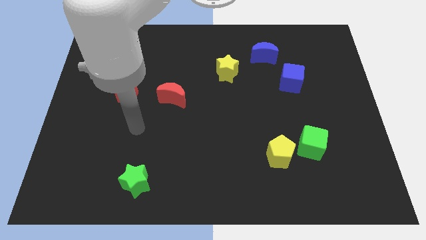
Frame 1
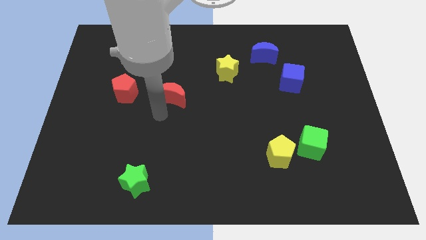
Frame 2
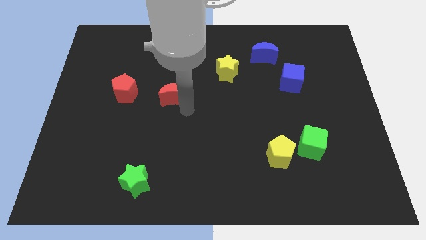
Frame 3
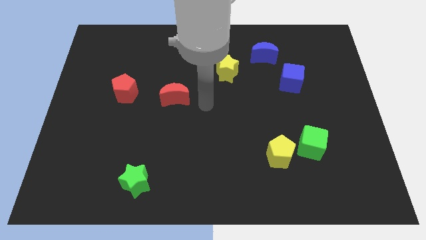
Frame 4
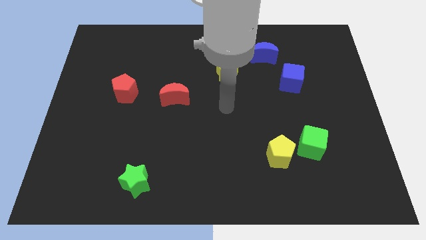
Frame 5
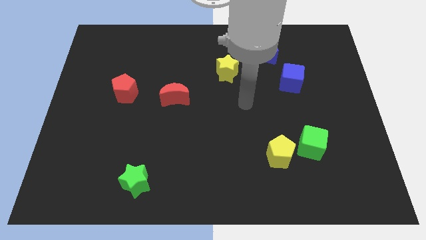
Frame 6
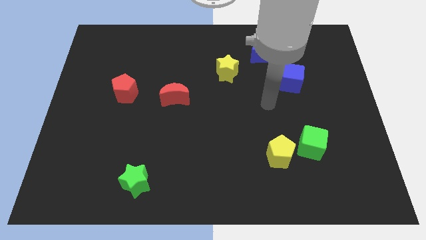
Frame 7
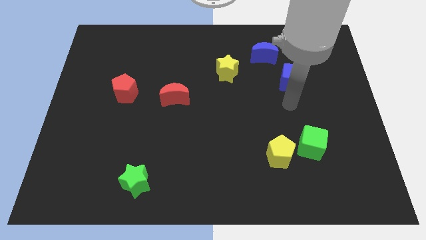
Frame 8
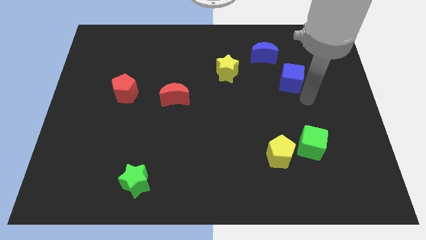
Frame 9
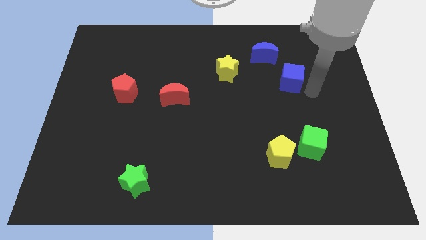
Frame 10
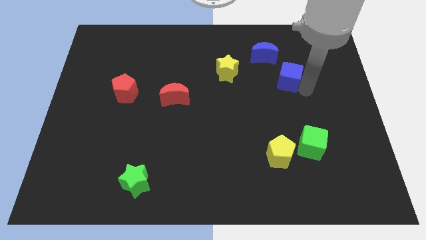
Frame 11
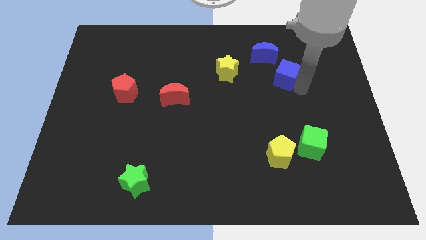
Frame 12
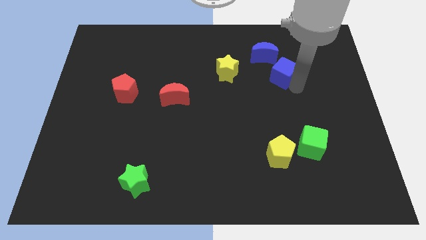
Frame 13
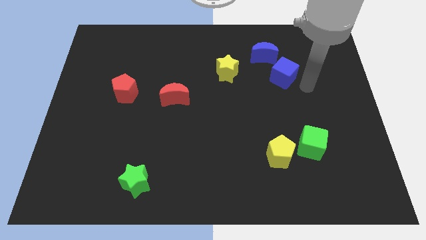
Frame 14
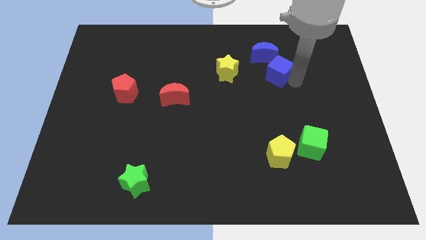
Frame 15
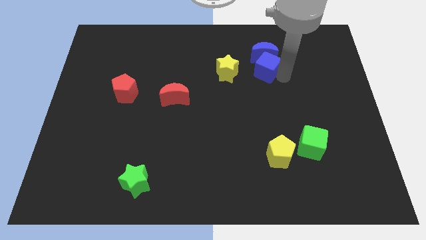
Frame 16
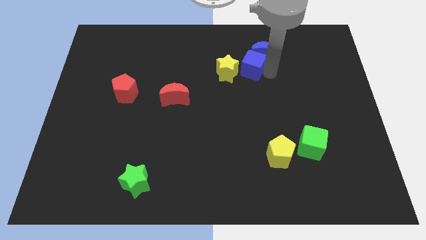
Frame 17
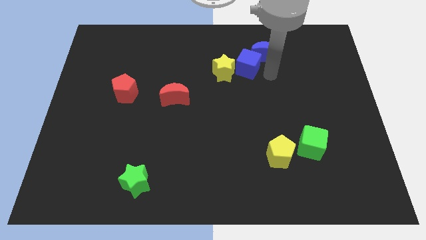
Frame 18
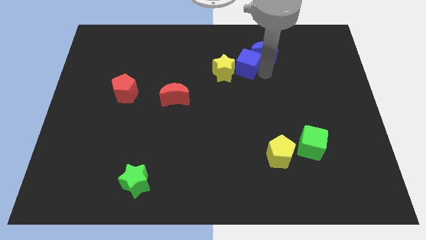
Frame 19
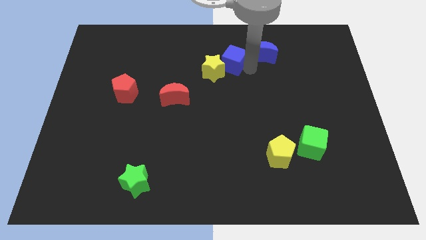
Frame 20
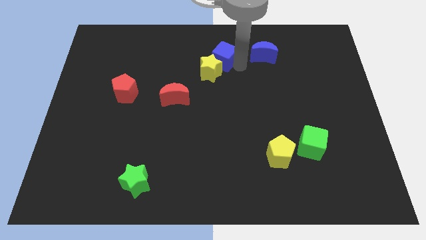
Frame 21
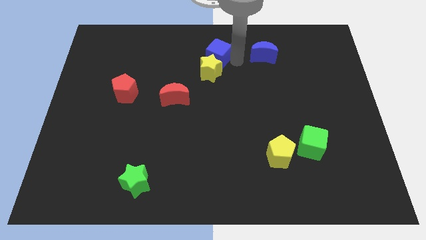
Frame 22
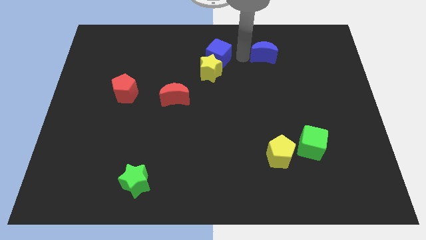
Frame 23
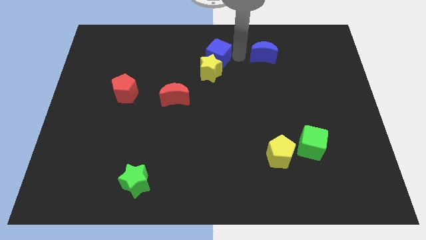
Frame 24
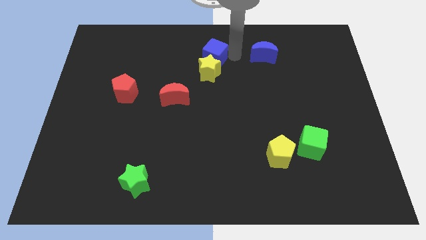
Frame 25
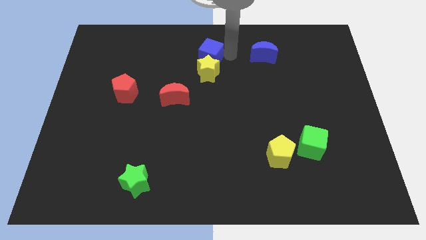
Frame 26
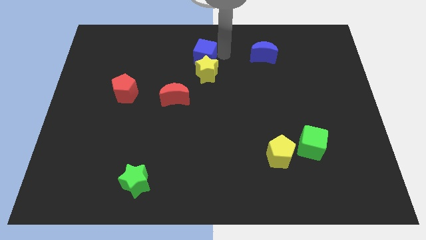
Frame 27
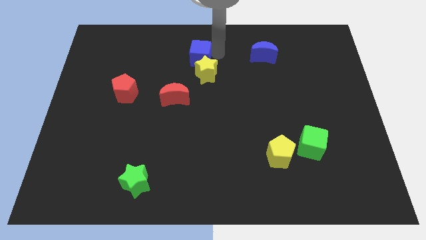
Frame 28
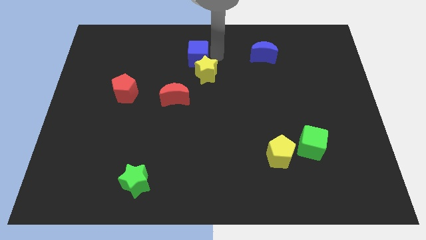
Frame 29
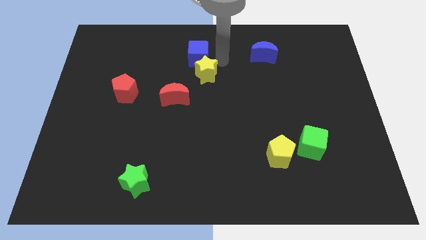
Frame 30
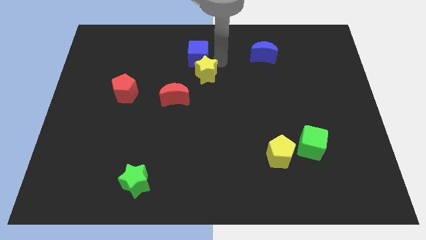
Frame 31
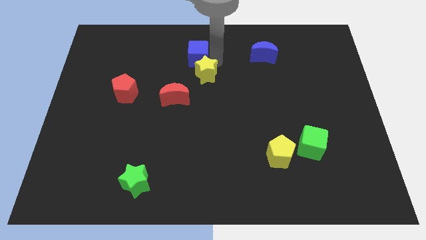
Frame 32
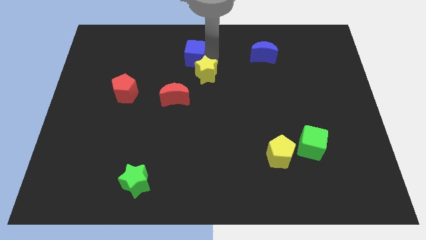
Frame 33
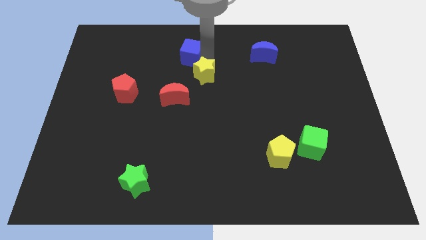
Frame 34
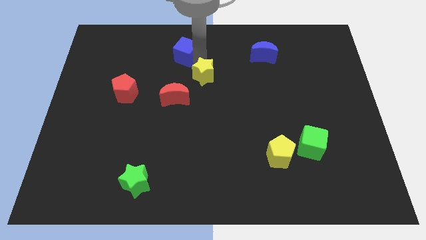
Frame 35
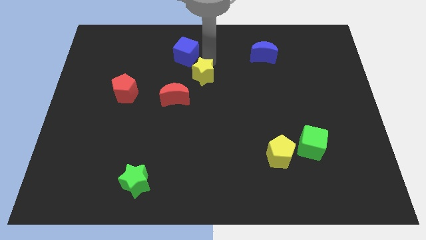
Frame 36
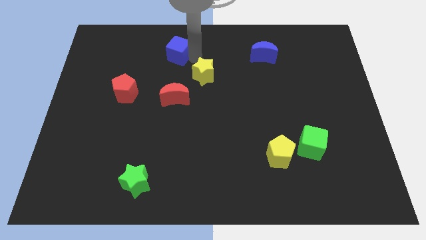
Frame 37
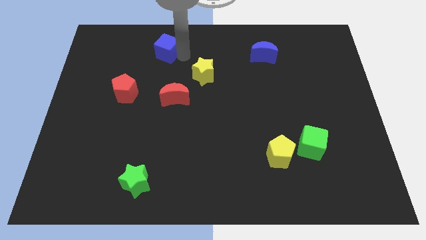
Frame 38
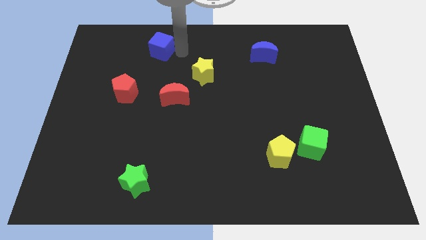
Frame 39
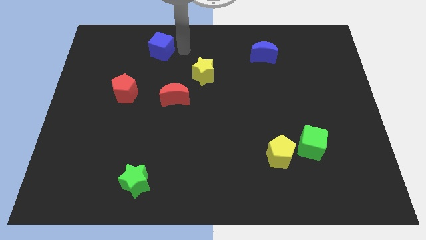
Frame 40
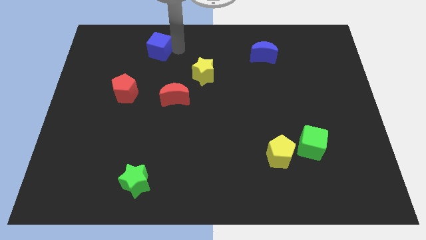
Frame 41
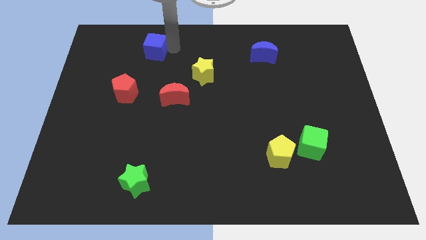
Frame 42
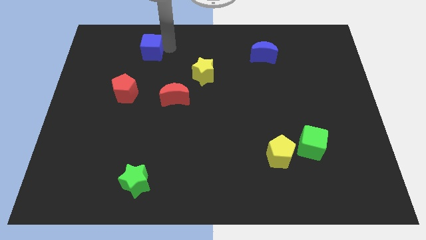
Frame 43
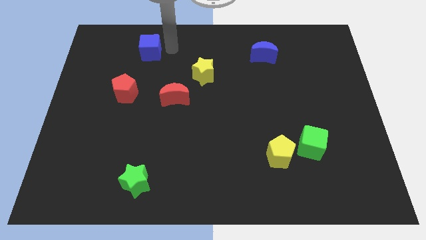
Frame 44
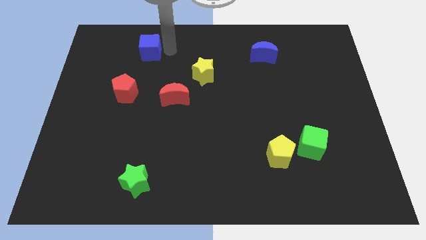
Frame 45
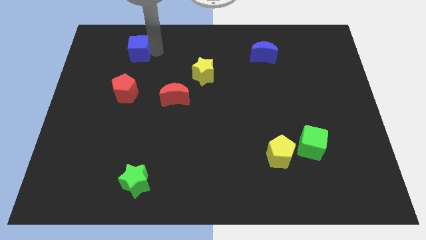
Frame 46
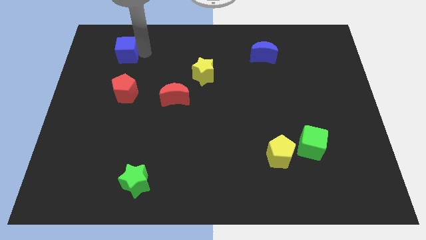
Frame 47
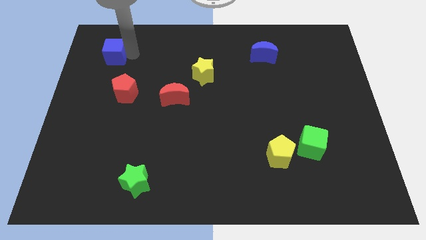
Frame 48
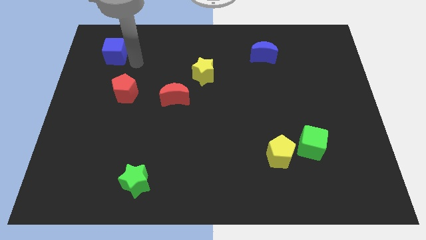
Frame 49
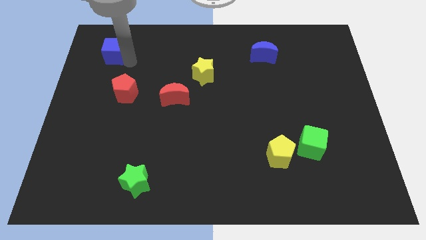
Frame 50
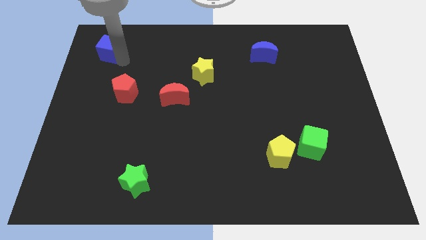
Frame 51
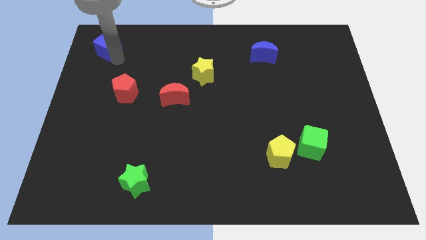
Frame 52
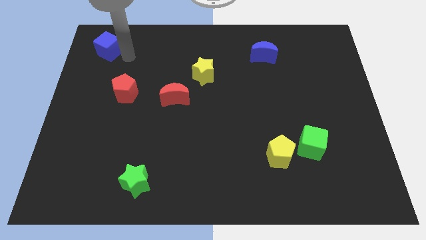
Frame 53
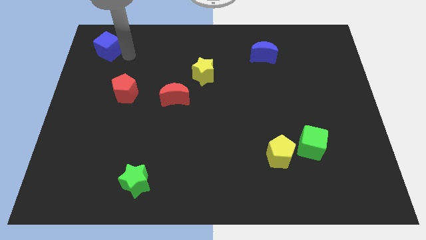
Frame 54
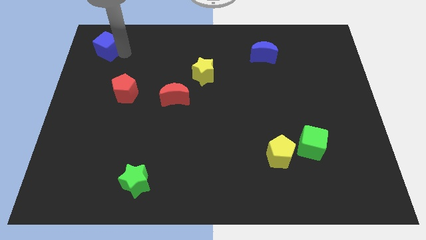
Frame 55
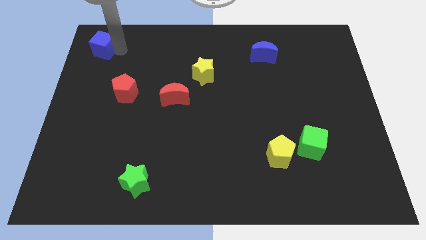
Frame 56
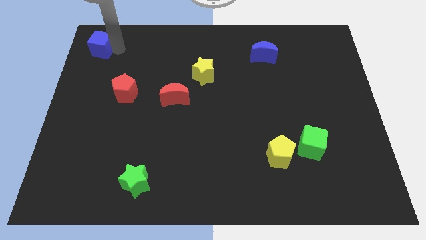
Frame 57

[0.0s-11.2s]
push the blue cube to the upper left corner
